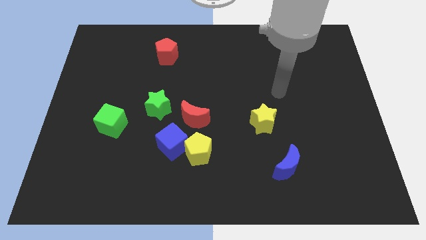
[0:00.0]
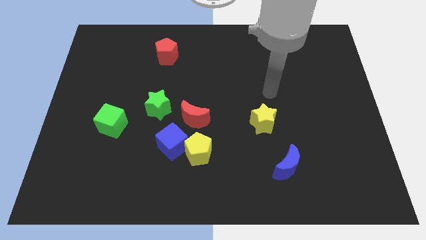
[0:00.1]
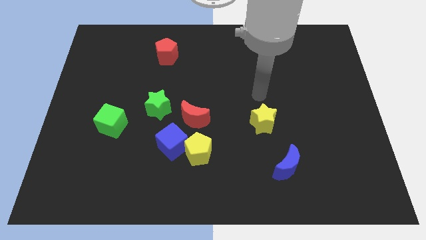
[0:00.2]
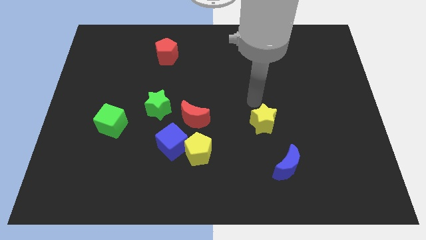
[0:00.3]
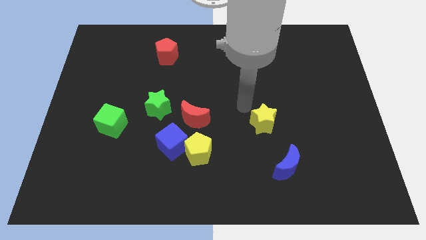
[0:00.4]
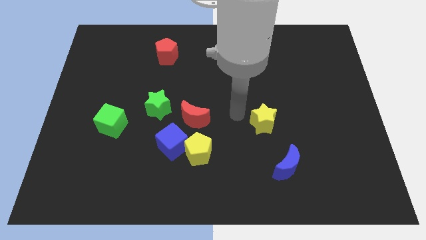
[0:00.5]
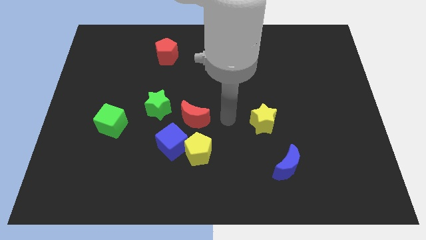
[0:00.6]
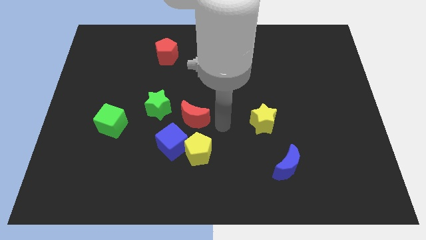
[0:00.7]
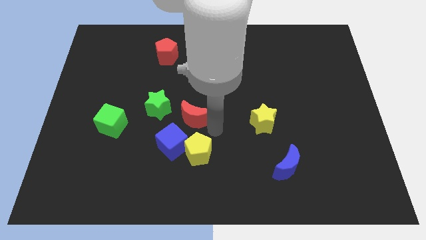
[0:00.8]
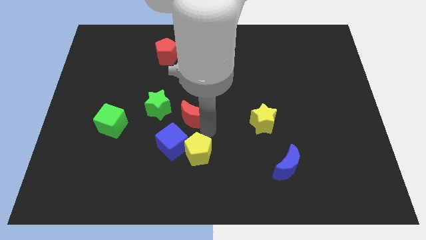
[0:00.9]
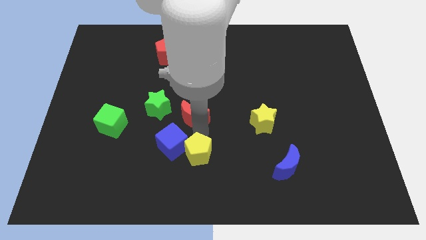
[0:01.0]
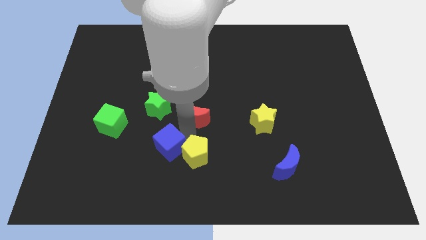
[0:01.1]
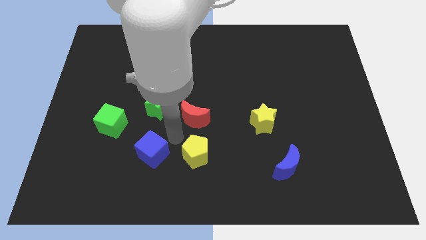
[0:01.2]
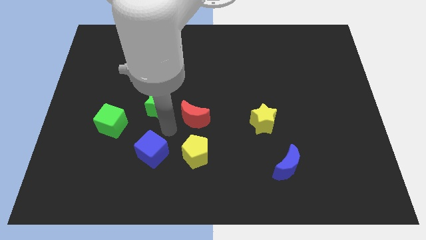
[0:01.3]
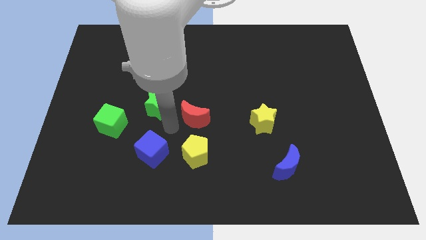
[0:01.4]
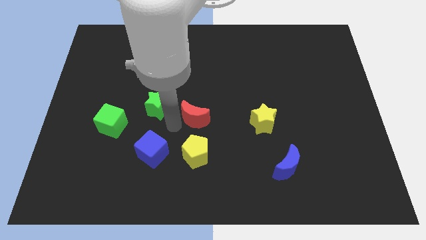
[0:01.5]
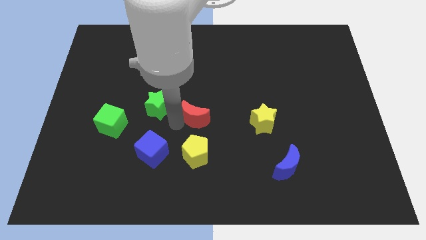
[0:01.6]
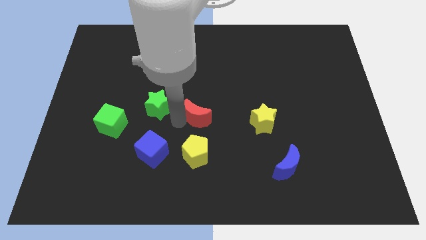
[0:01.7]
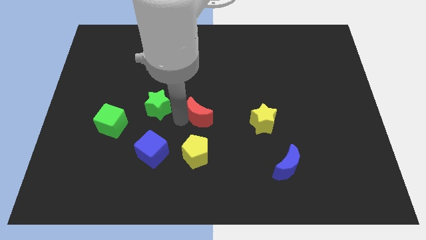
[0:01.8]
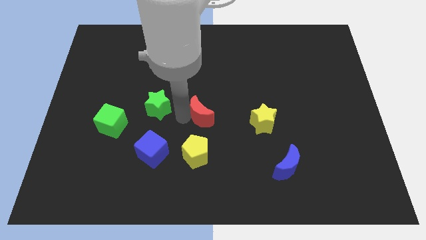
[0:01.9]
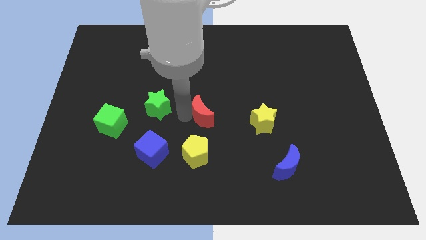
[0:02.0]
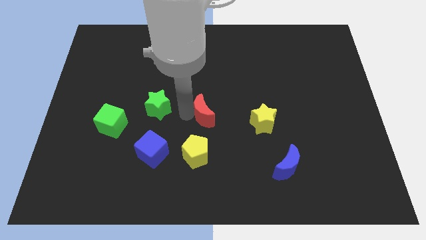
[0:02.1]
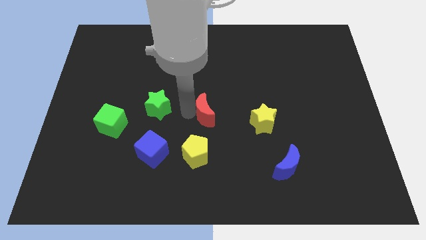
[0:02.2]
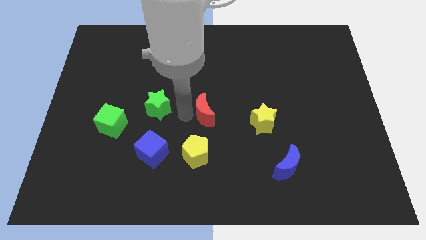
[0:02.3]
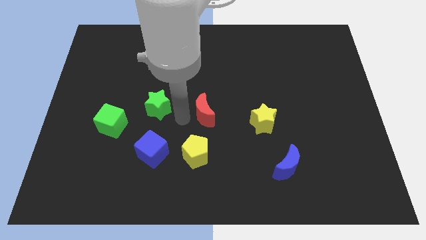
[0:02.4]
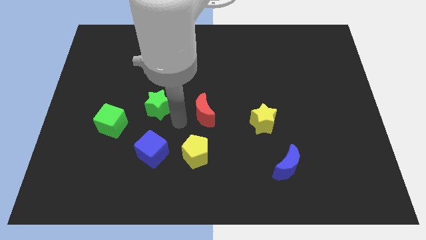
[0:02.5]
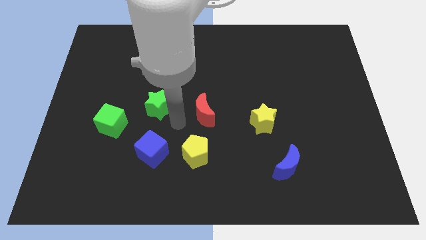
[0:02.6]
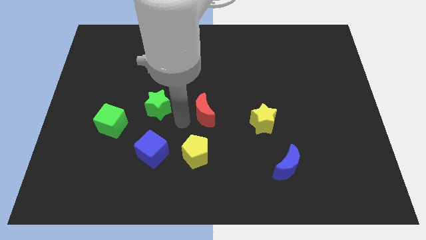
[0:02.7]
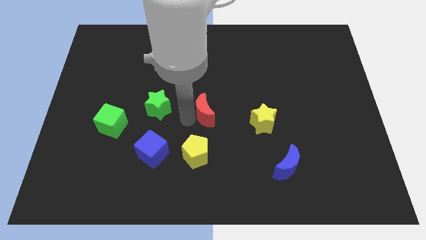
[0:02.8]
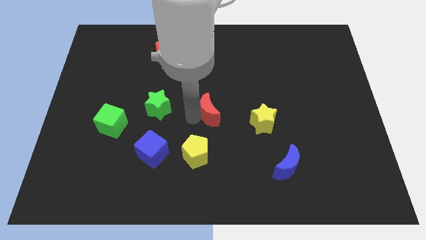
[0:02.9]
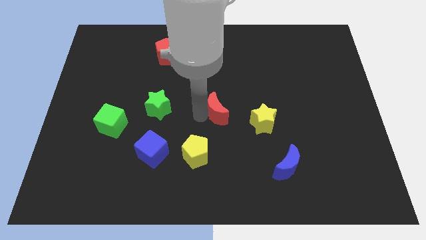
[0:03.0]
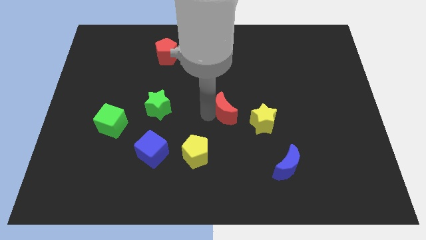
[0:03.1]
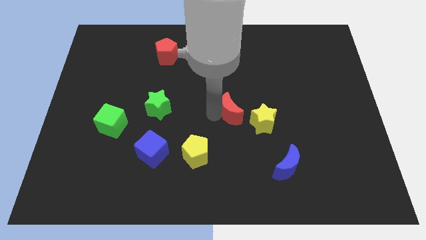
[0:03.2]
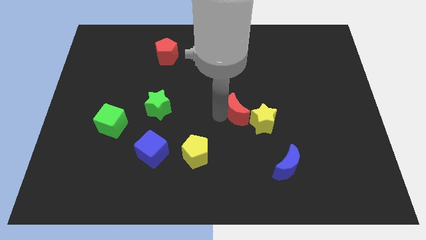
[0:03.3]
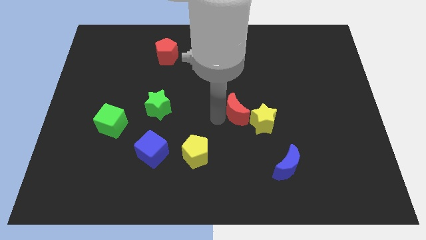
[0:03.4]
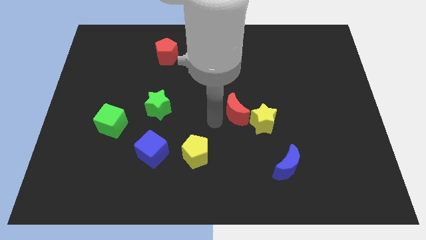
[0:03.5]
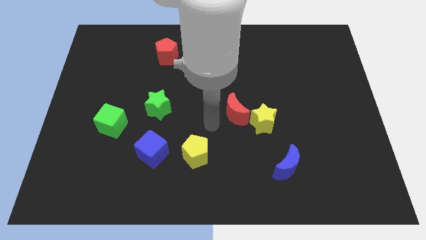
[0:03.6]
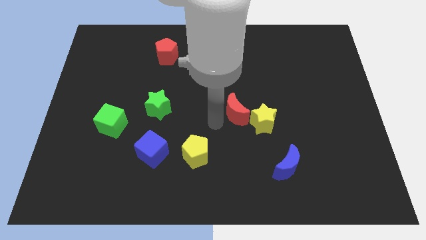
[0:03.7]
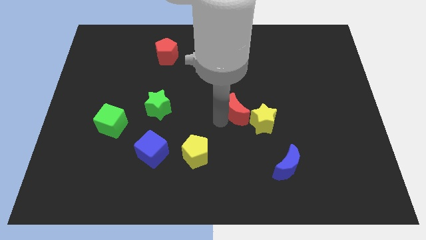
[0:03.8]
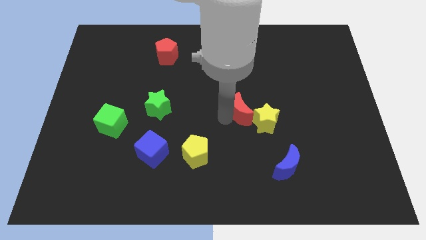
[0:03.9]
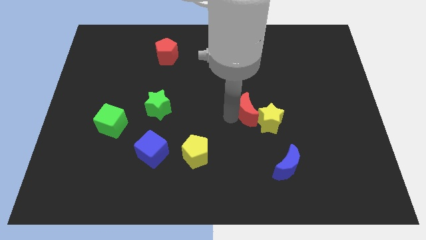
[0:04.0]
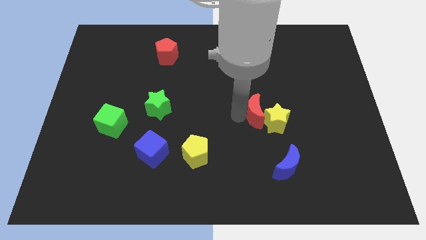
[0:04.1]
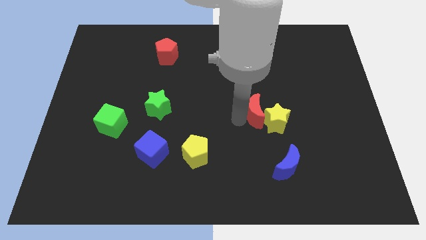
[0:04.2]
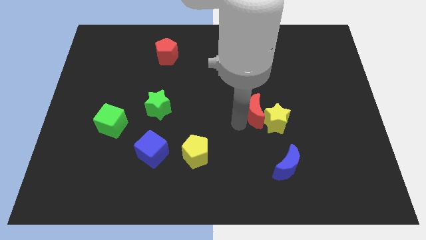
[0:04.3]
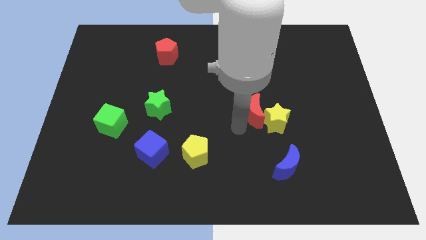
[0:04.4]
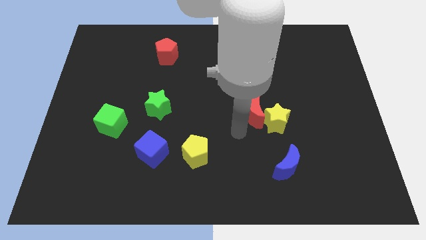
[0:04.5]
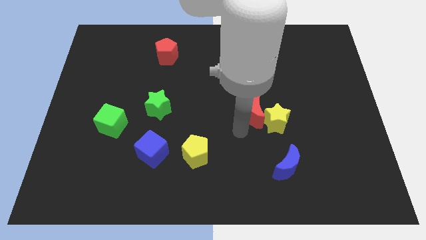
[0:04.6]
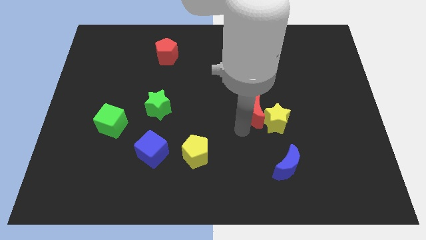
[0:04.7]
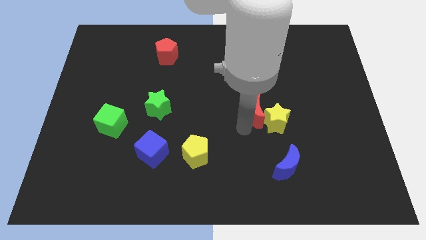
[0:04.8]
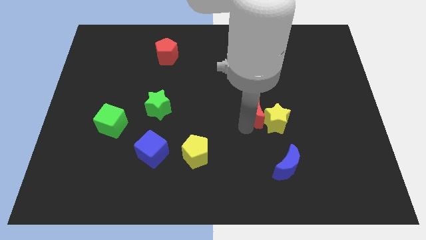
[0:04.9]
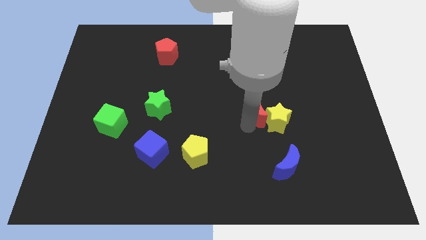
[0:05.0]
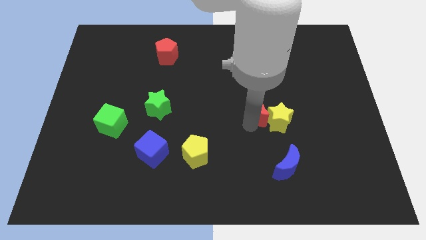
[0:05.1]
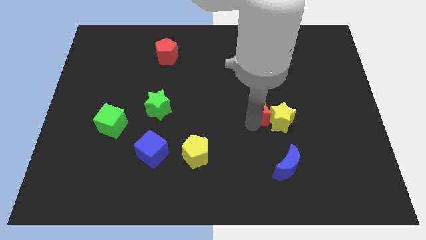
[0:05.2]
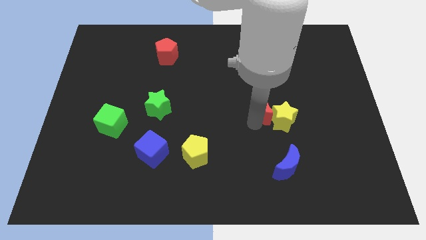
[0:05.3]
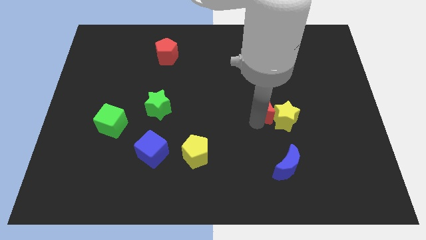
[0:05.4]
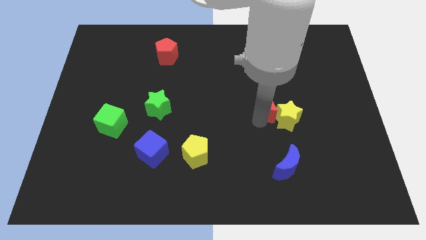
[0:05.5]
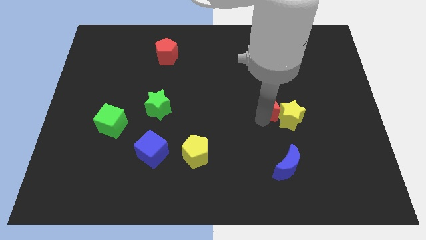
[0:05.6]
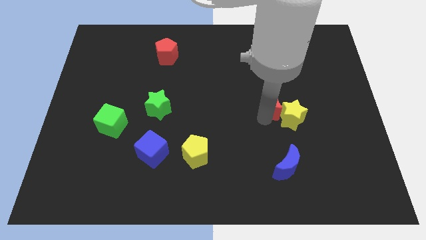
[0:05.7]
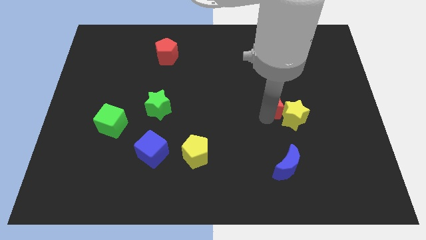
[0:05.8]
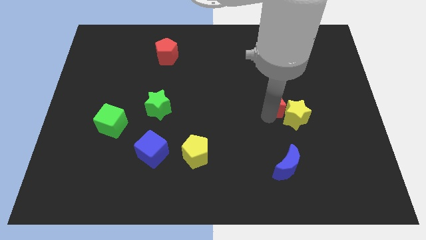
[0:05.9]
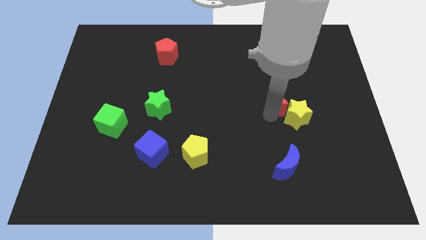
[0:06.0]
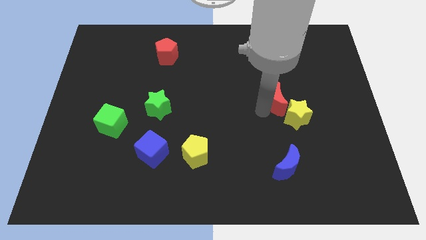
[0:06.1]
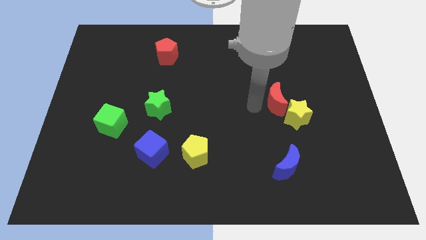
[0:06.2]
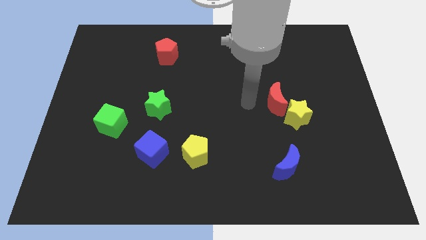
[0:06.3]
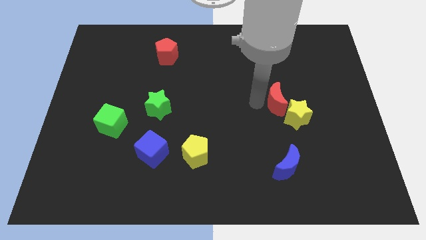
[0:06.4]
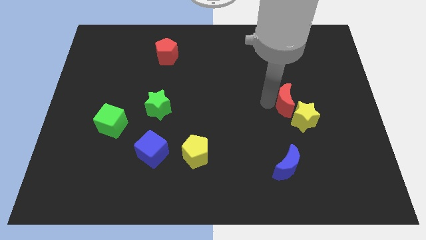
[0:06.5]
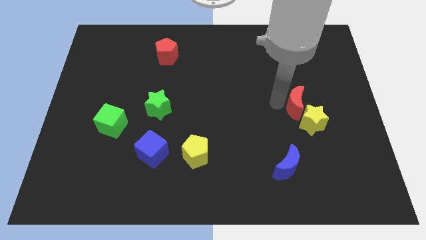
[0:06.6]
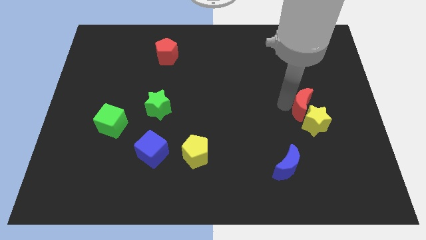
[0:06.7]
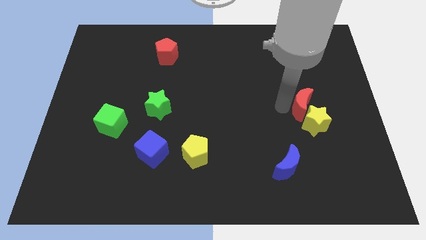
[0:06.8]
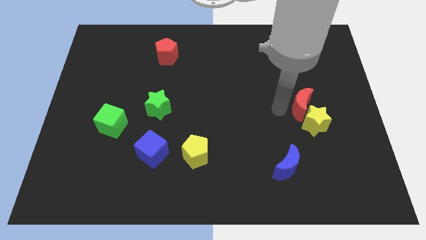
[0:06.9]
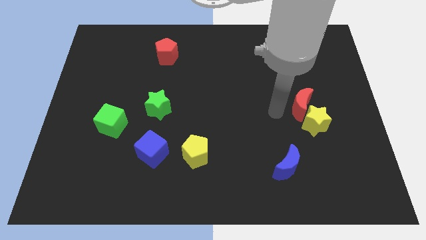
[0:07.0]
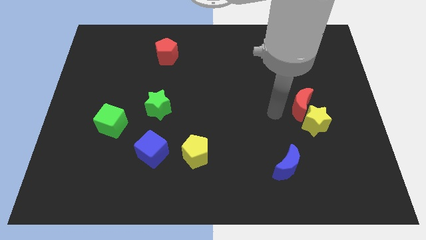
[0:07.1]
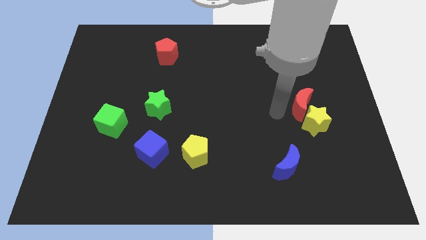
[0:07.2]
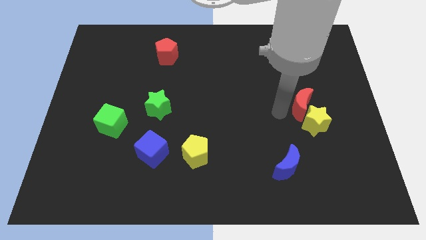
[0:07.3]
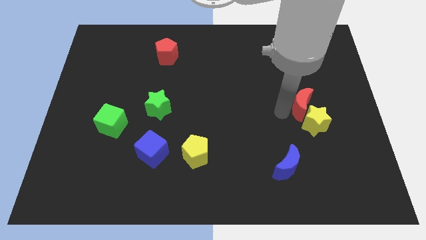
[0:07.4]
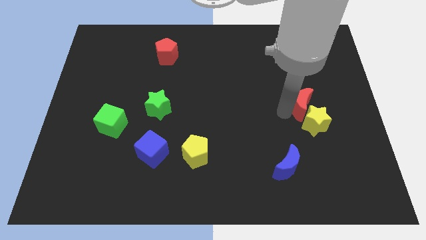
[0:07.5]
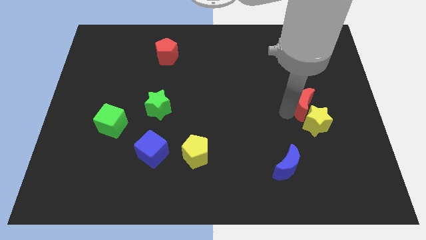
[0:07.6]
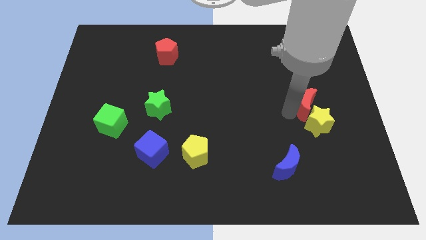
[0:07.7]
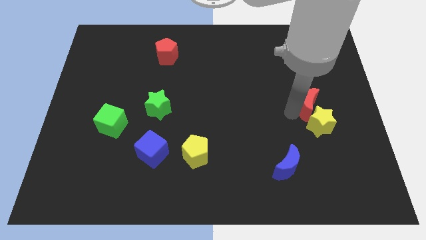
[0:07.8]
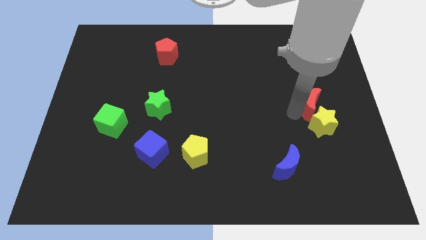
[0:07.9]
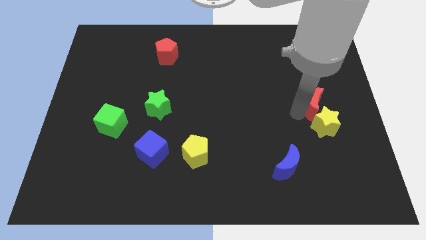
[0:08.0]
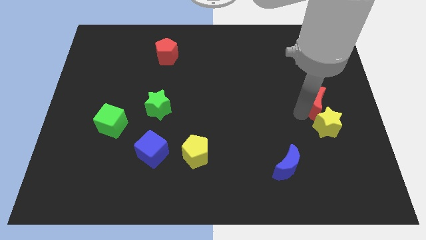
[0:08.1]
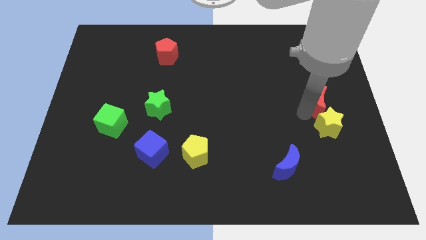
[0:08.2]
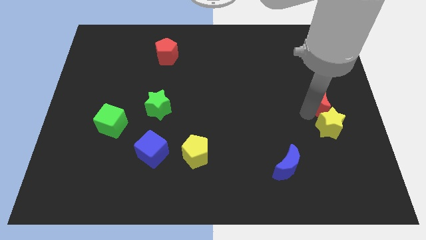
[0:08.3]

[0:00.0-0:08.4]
push the red moon to the center right
